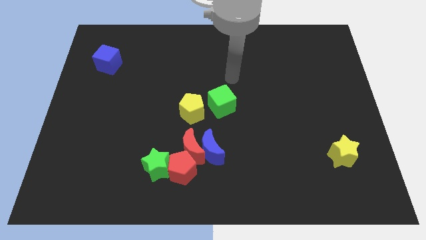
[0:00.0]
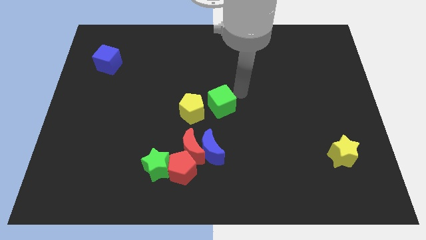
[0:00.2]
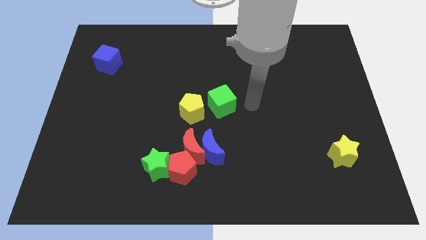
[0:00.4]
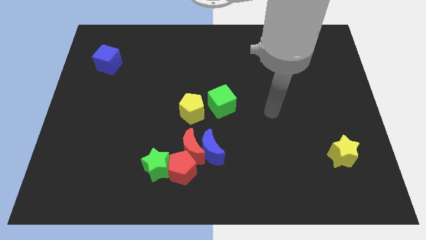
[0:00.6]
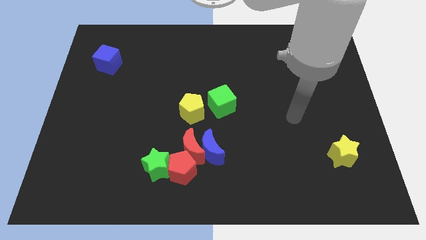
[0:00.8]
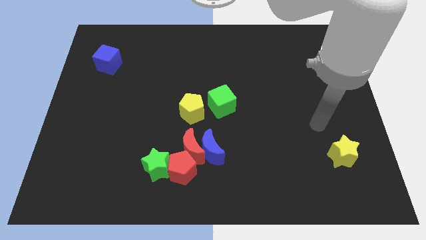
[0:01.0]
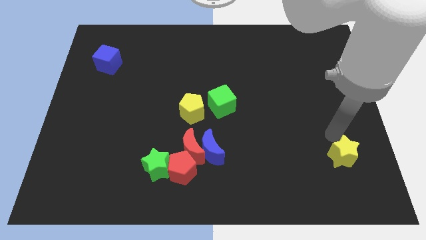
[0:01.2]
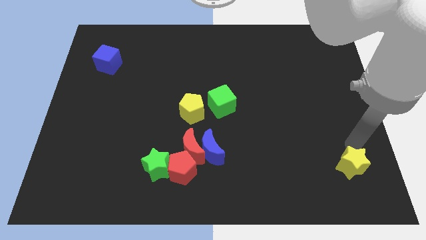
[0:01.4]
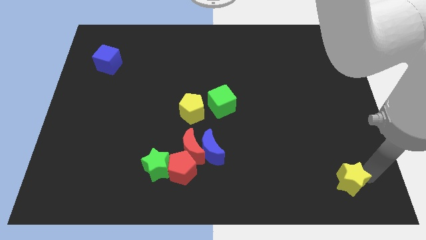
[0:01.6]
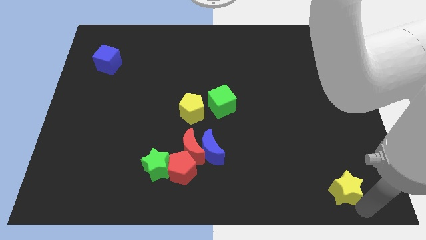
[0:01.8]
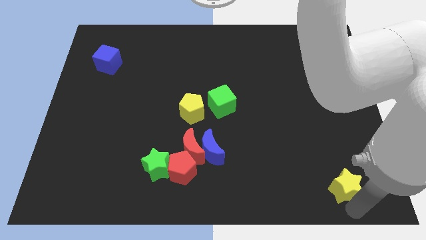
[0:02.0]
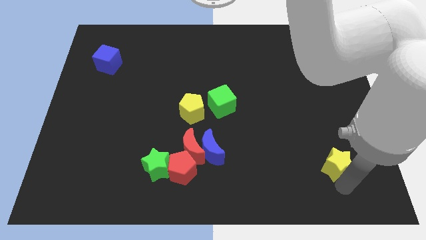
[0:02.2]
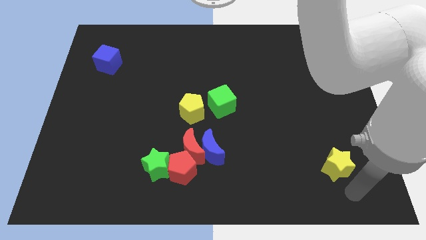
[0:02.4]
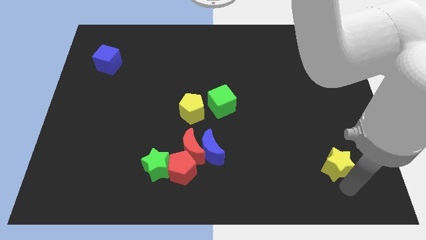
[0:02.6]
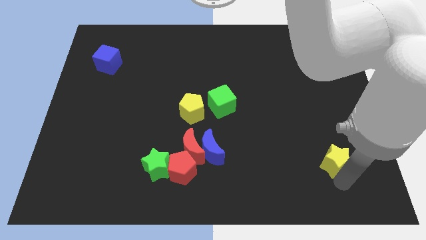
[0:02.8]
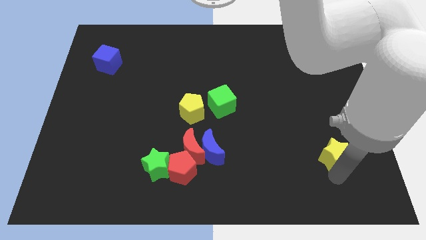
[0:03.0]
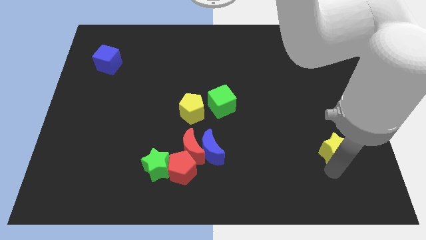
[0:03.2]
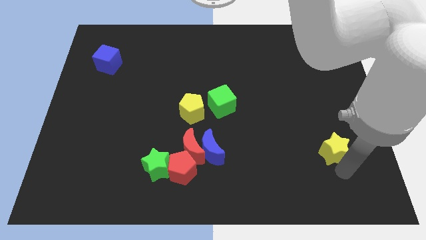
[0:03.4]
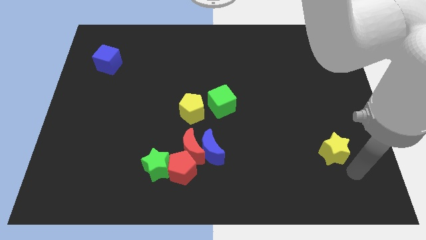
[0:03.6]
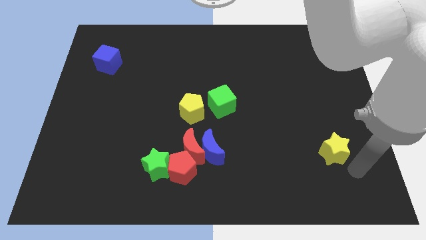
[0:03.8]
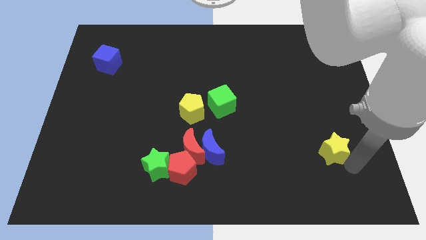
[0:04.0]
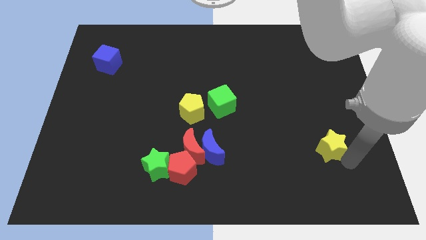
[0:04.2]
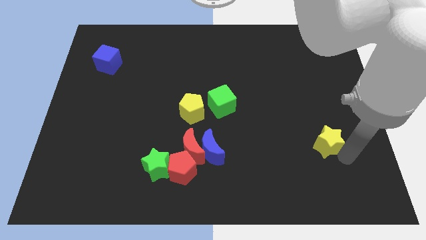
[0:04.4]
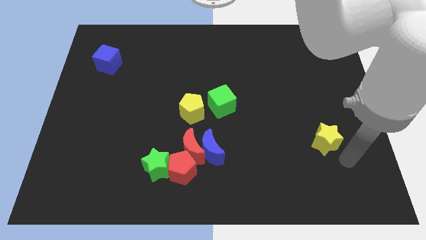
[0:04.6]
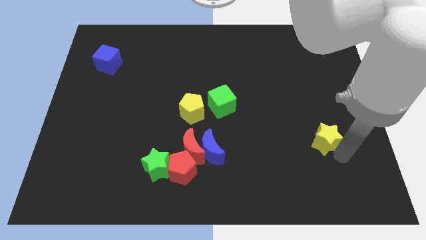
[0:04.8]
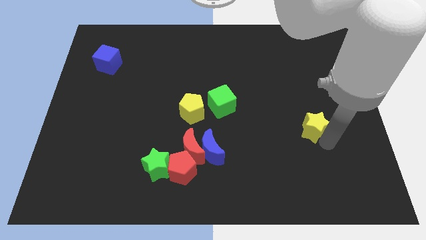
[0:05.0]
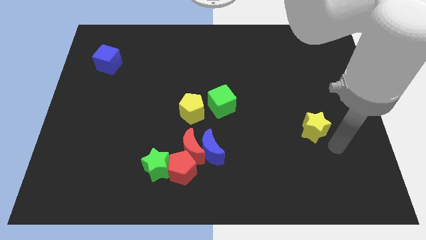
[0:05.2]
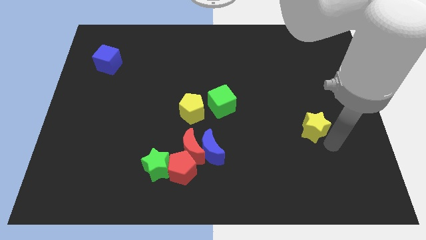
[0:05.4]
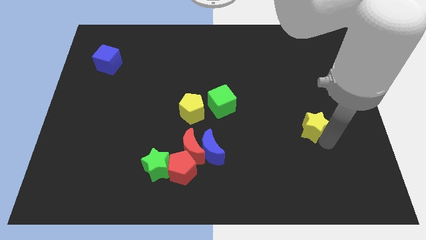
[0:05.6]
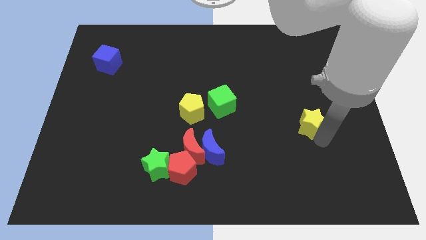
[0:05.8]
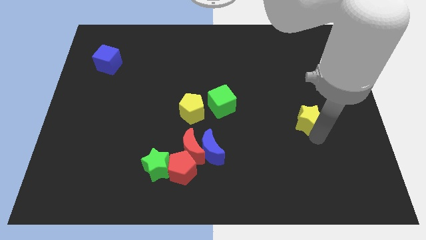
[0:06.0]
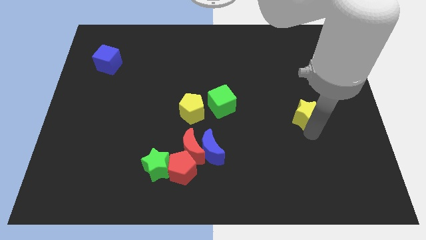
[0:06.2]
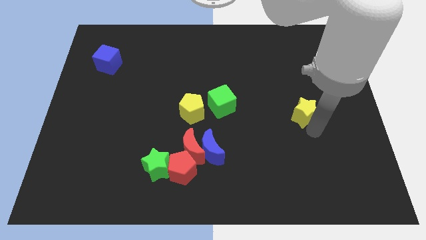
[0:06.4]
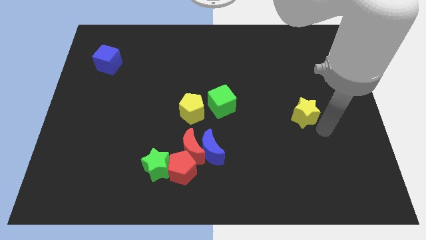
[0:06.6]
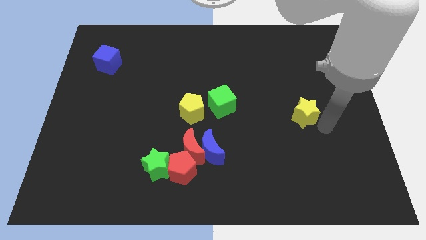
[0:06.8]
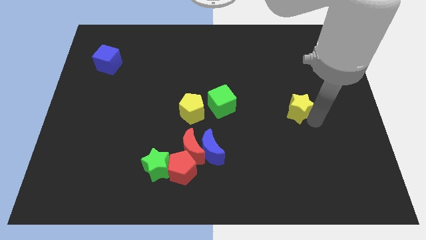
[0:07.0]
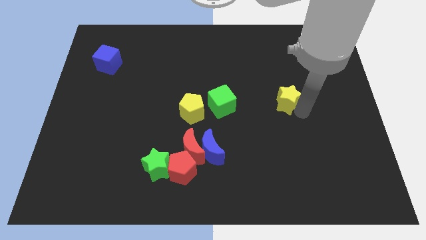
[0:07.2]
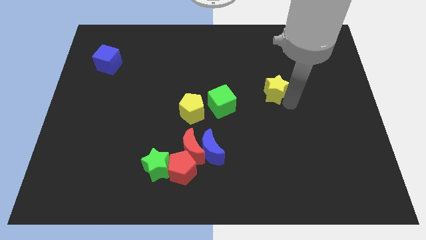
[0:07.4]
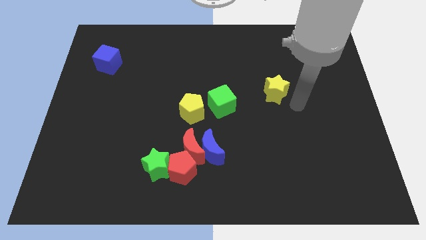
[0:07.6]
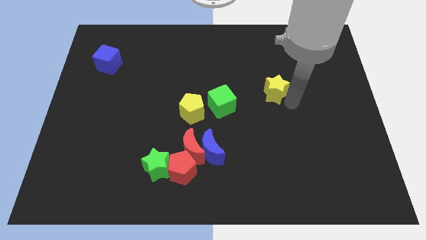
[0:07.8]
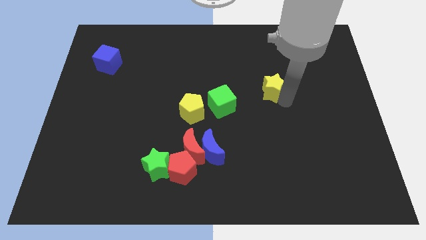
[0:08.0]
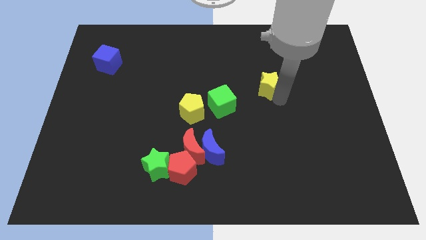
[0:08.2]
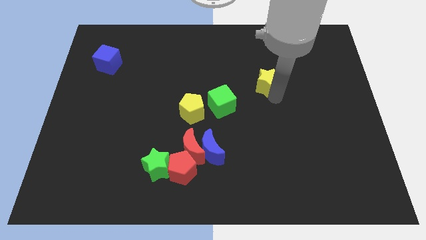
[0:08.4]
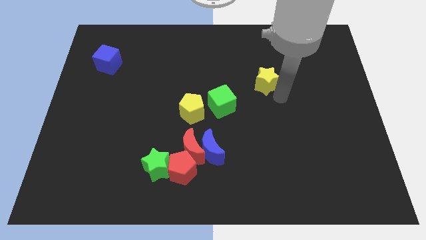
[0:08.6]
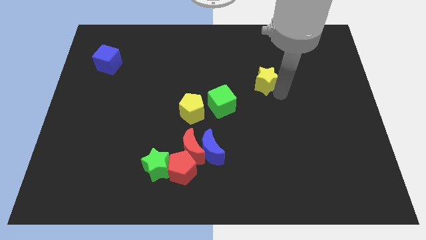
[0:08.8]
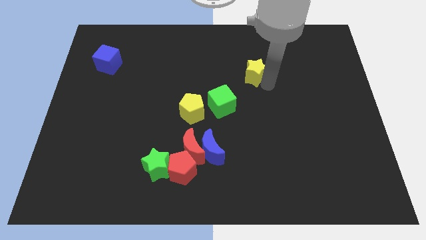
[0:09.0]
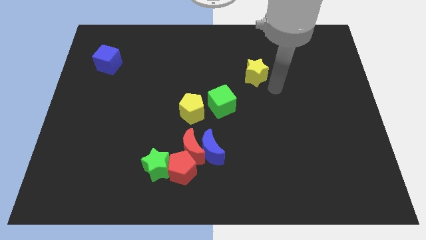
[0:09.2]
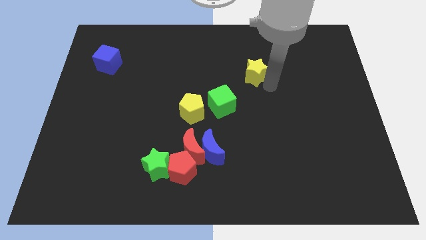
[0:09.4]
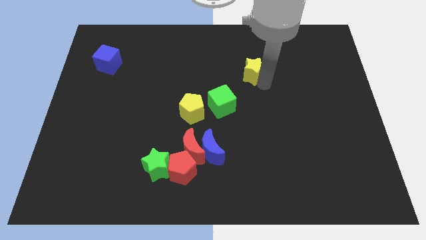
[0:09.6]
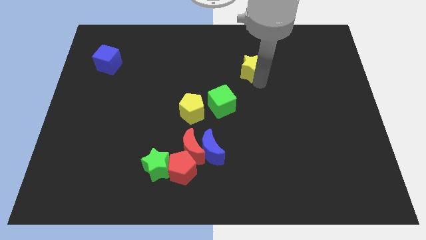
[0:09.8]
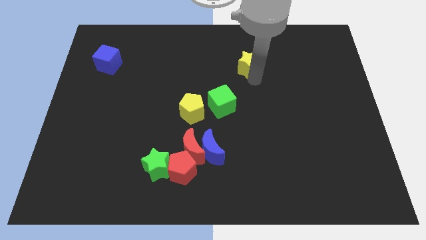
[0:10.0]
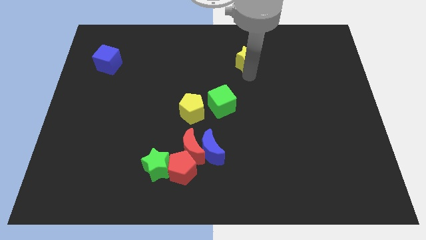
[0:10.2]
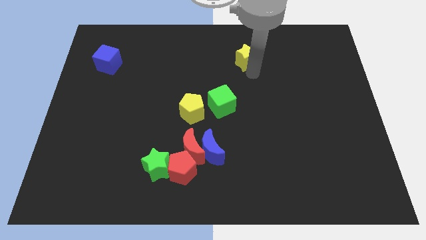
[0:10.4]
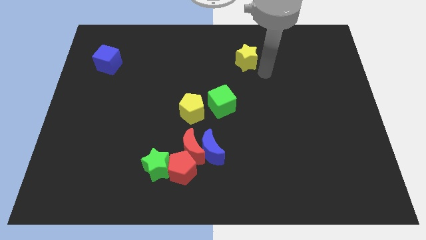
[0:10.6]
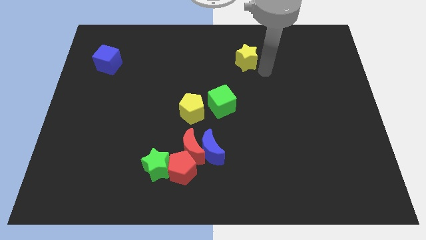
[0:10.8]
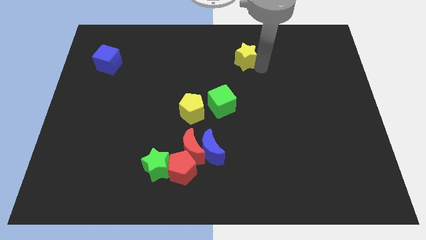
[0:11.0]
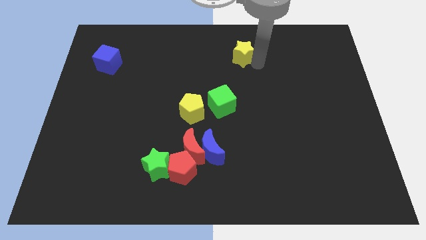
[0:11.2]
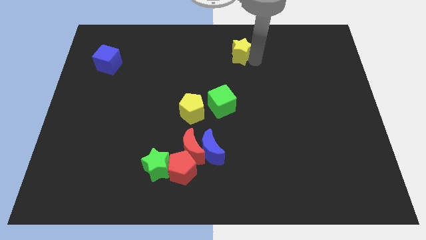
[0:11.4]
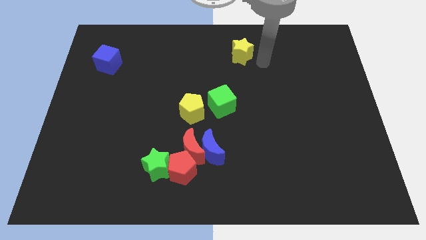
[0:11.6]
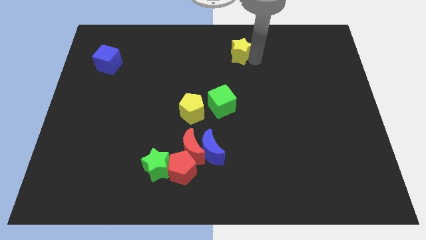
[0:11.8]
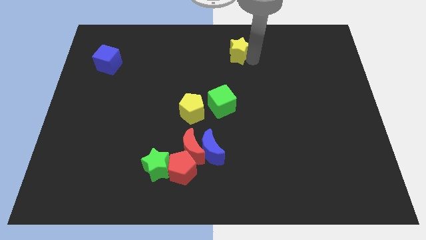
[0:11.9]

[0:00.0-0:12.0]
push the yellow star to the top
